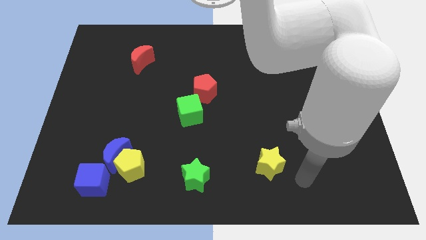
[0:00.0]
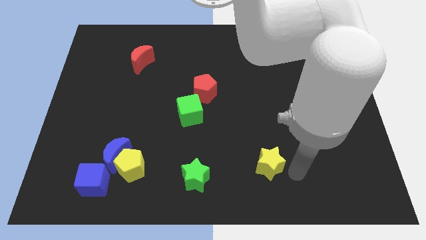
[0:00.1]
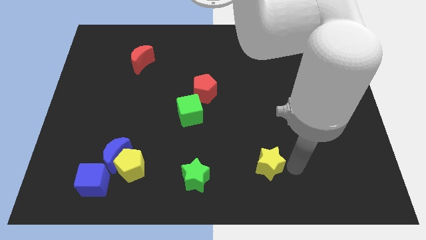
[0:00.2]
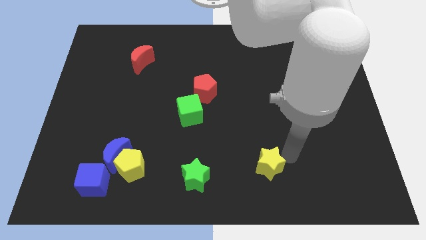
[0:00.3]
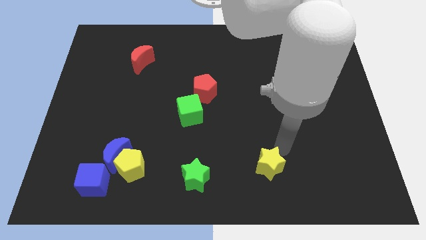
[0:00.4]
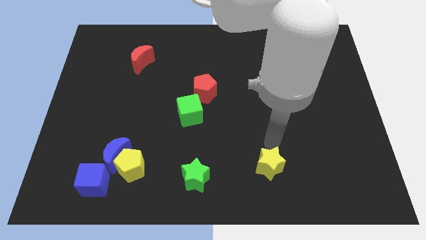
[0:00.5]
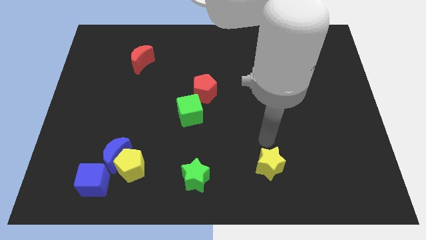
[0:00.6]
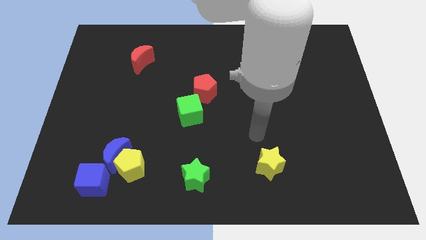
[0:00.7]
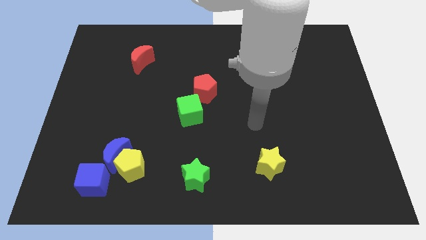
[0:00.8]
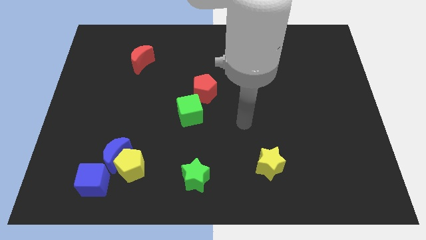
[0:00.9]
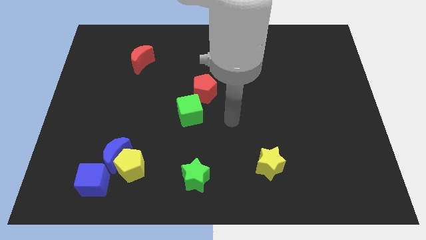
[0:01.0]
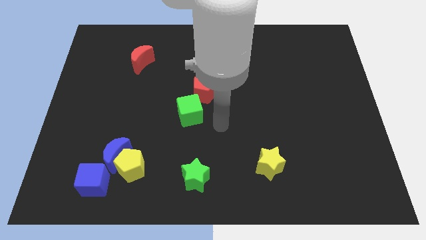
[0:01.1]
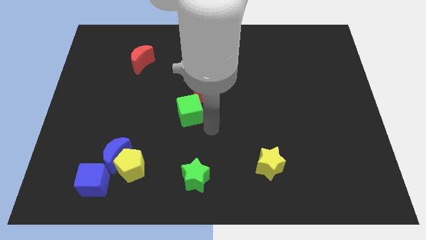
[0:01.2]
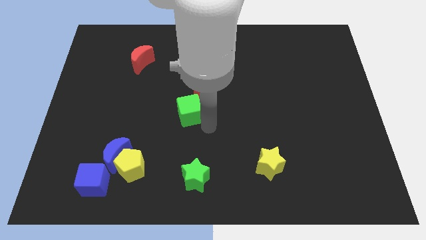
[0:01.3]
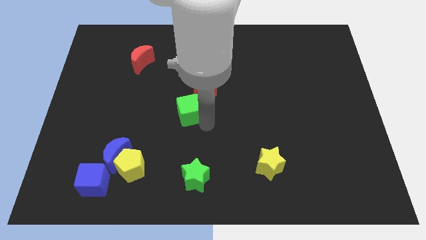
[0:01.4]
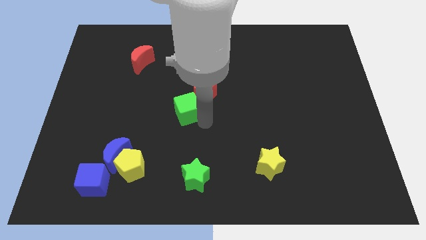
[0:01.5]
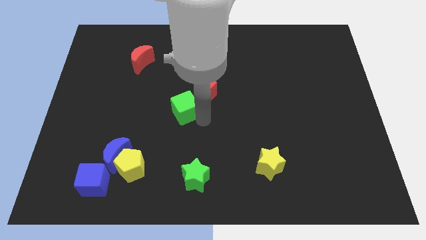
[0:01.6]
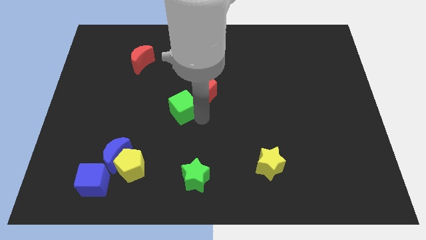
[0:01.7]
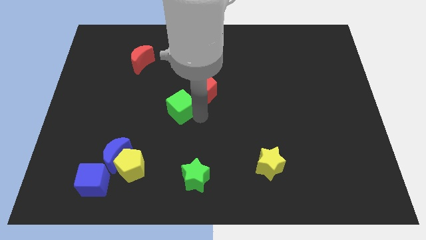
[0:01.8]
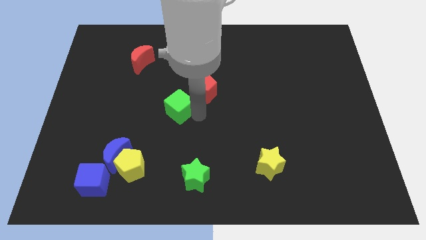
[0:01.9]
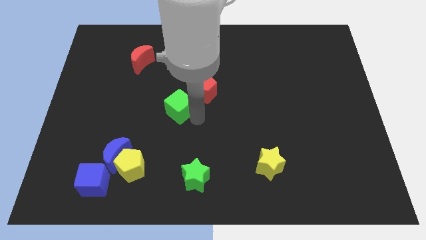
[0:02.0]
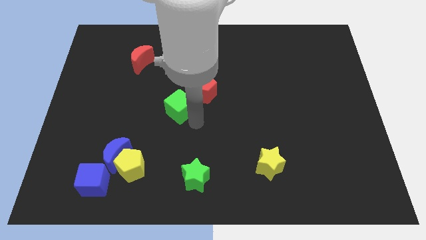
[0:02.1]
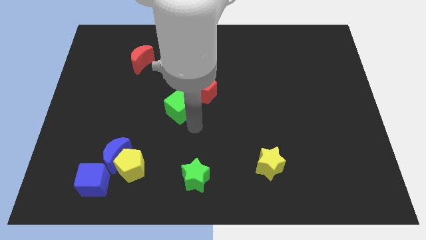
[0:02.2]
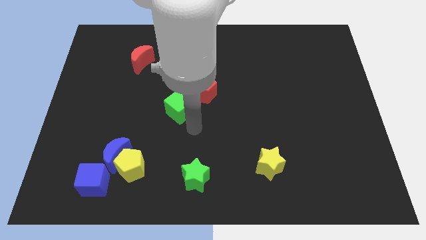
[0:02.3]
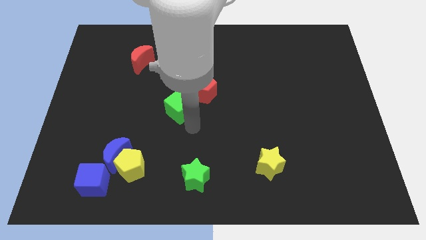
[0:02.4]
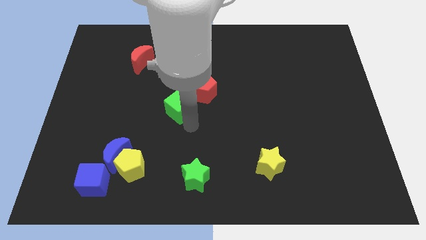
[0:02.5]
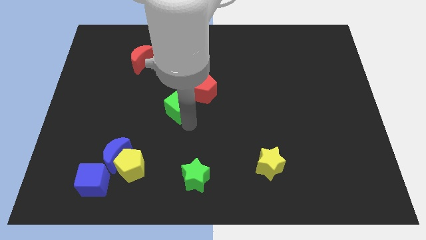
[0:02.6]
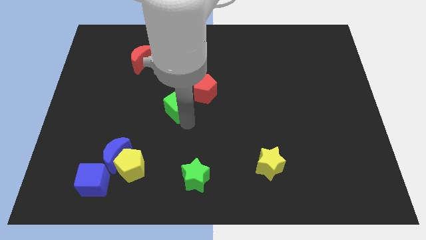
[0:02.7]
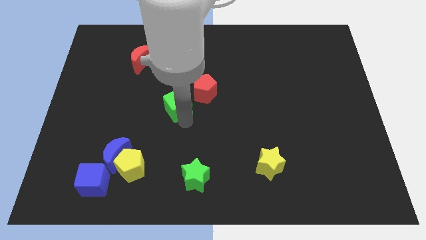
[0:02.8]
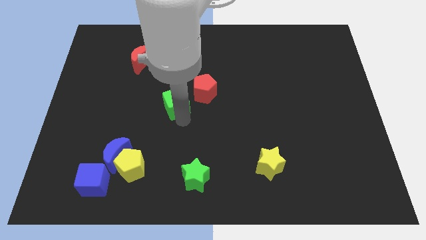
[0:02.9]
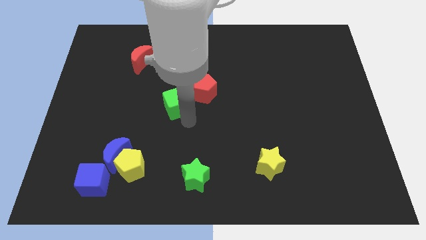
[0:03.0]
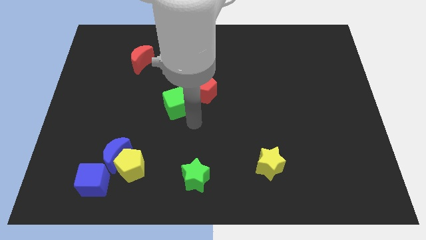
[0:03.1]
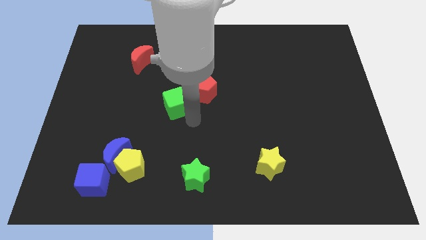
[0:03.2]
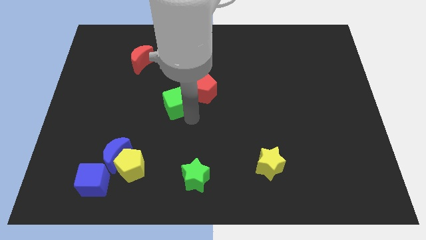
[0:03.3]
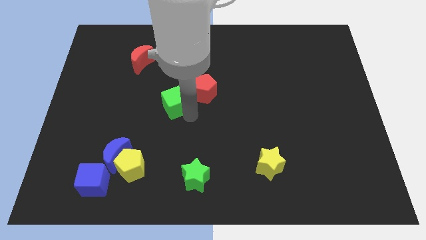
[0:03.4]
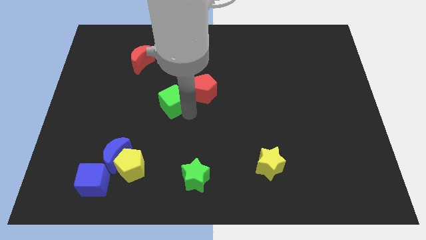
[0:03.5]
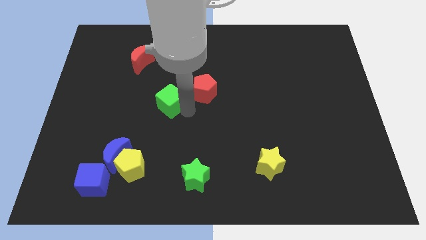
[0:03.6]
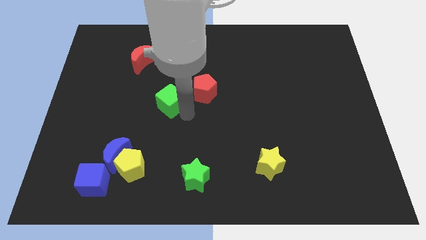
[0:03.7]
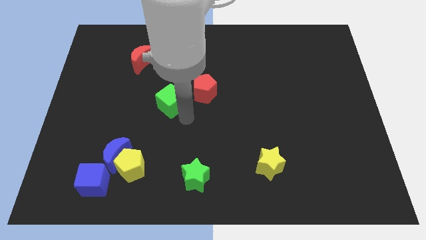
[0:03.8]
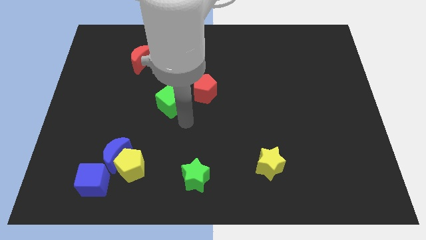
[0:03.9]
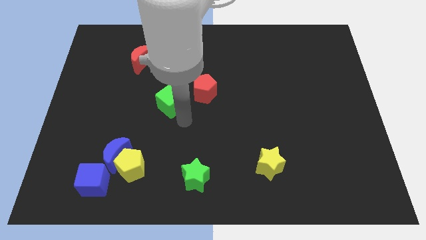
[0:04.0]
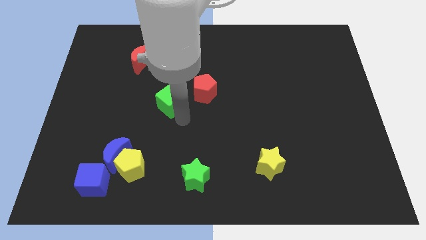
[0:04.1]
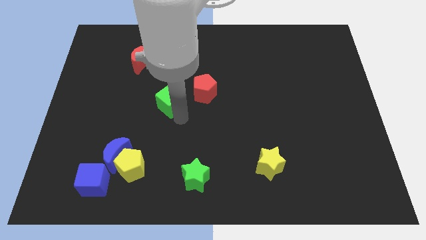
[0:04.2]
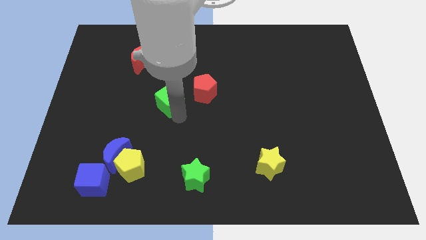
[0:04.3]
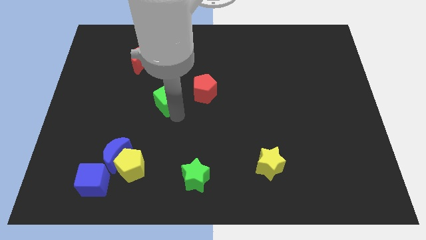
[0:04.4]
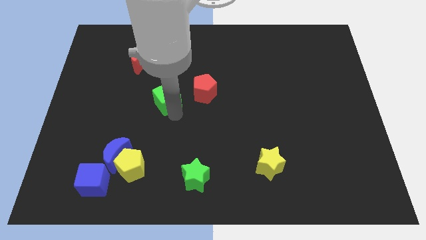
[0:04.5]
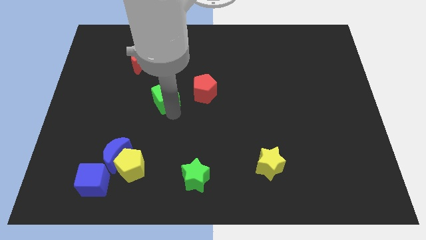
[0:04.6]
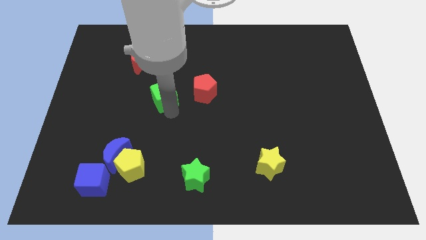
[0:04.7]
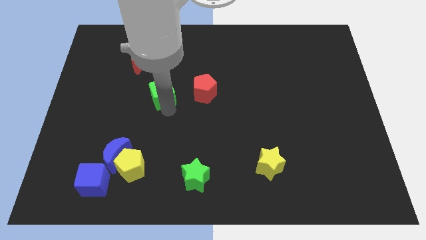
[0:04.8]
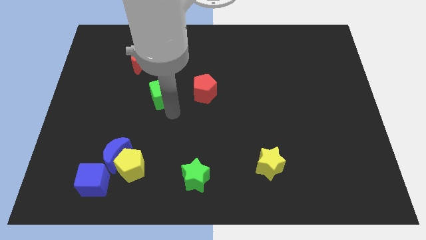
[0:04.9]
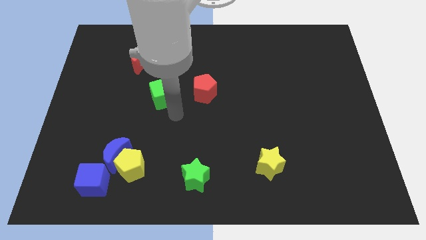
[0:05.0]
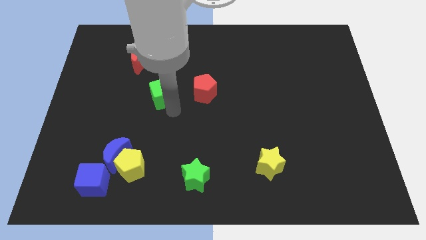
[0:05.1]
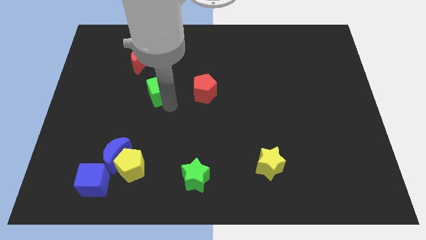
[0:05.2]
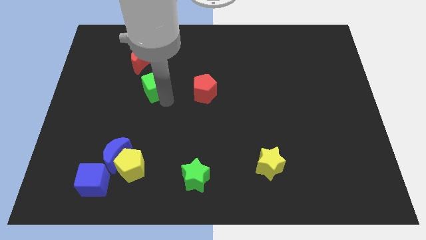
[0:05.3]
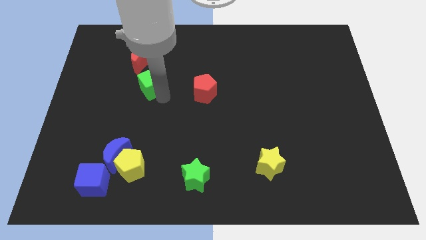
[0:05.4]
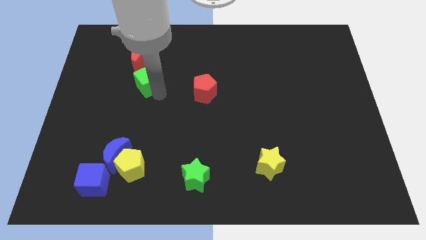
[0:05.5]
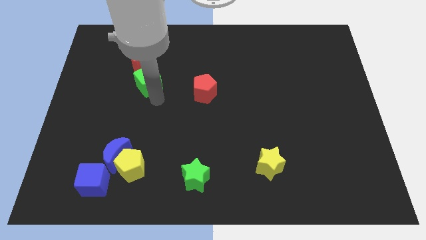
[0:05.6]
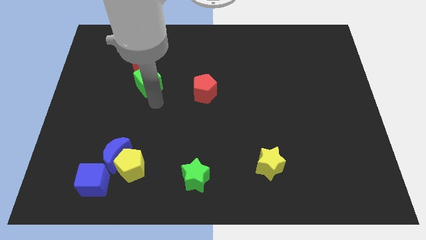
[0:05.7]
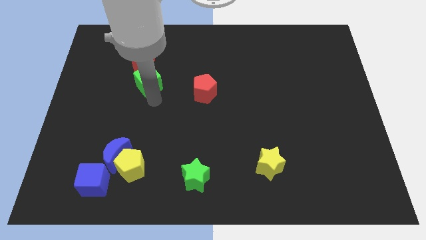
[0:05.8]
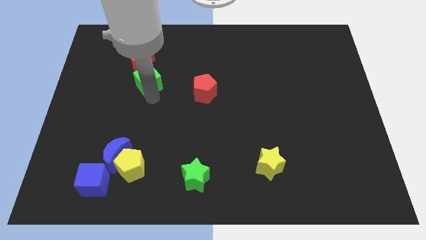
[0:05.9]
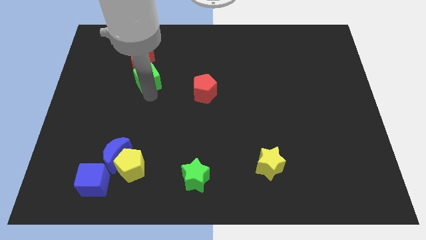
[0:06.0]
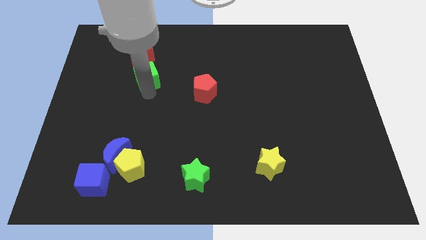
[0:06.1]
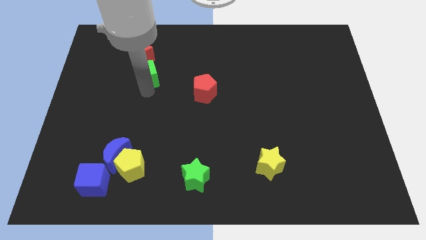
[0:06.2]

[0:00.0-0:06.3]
slide the green cube towards the red moon

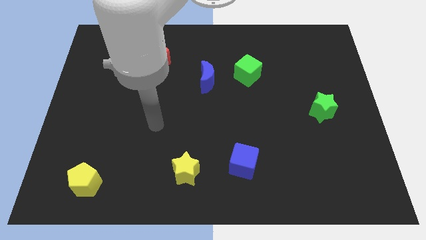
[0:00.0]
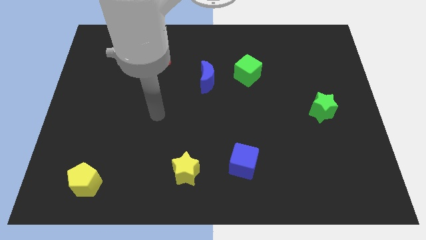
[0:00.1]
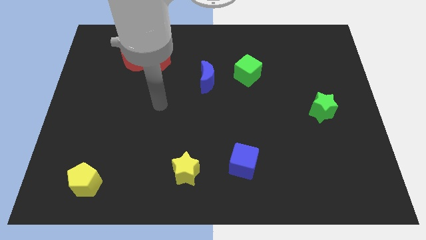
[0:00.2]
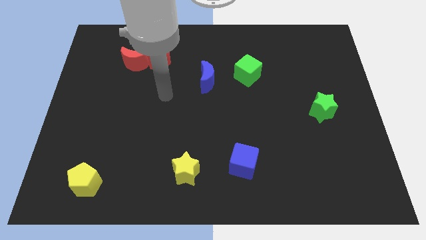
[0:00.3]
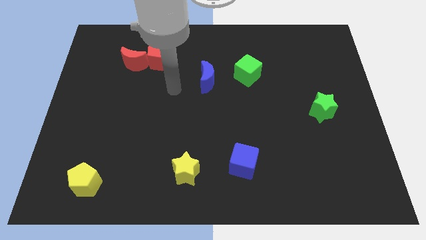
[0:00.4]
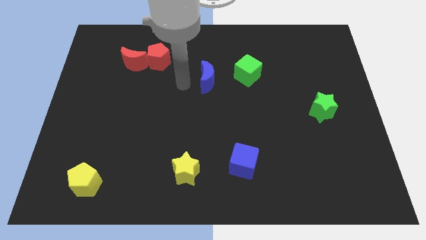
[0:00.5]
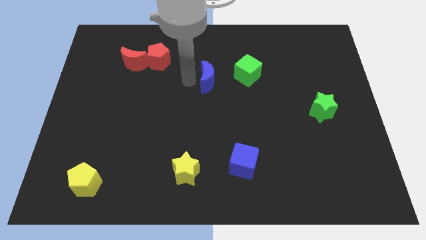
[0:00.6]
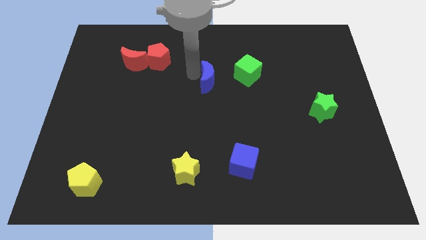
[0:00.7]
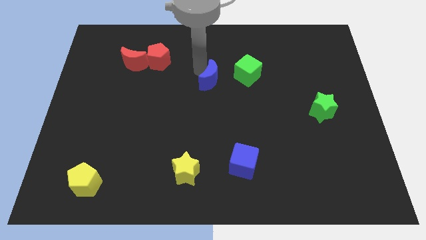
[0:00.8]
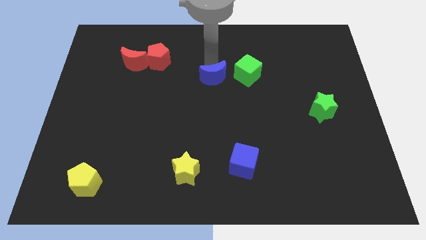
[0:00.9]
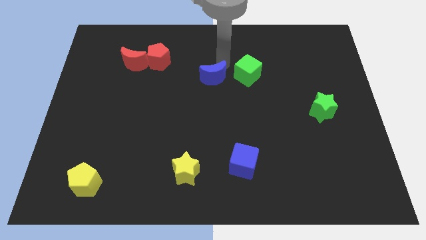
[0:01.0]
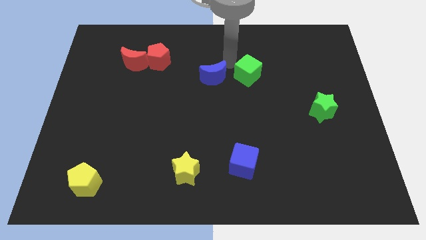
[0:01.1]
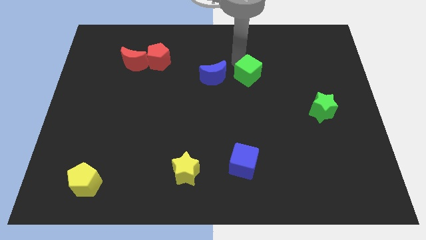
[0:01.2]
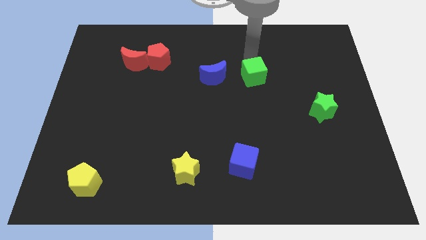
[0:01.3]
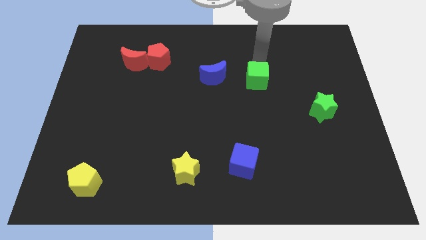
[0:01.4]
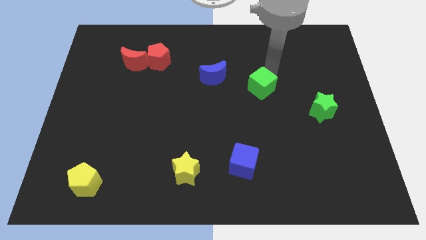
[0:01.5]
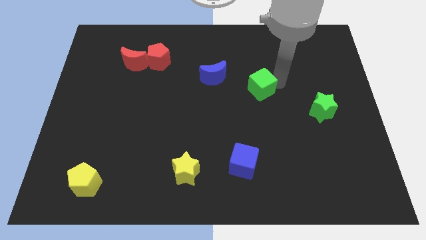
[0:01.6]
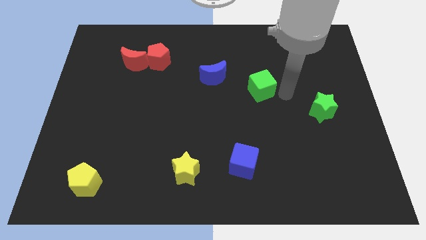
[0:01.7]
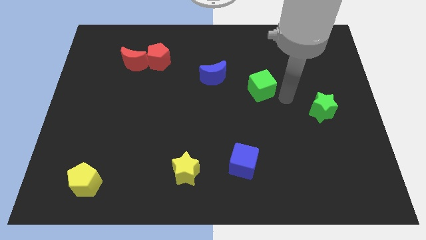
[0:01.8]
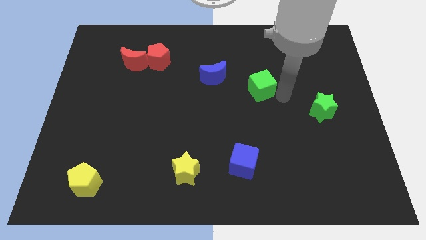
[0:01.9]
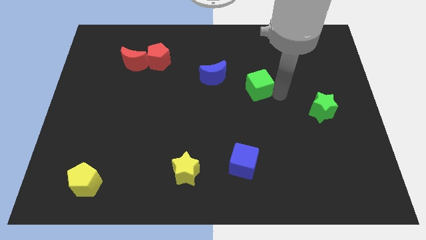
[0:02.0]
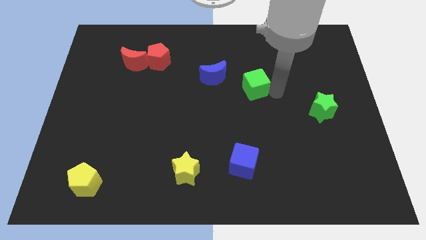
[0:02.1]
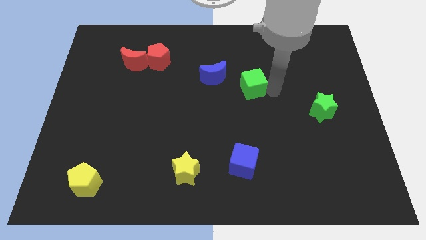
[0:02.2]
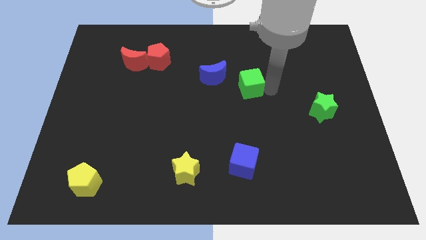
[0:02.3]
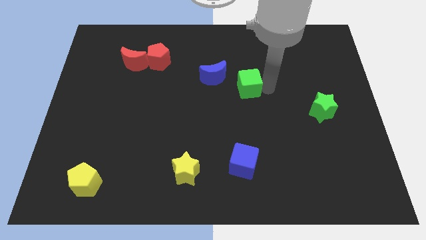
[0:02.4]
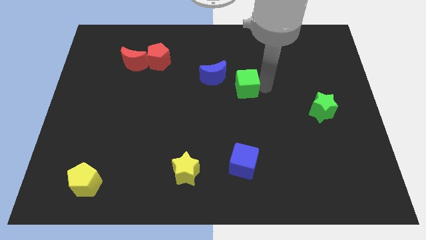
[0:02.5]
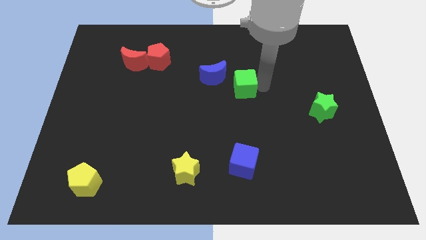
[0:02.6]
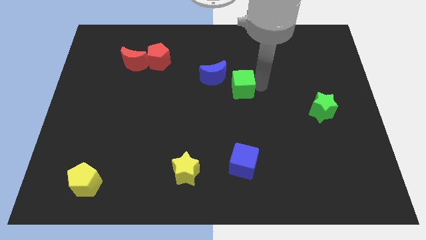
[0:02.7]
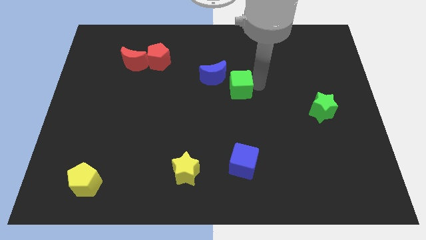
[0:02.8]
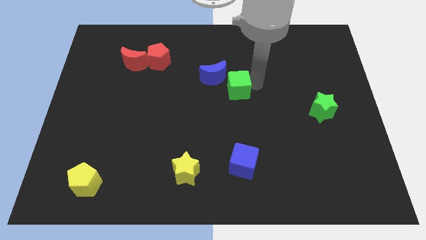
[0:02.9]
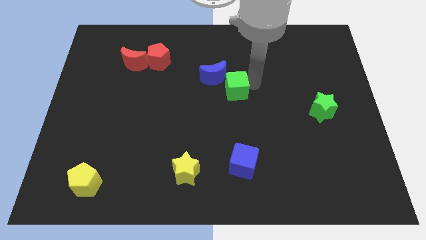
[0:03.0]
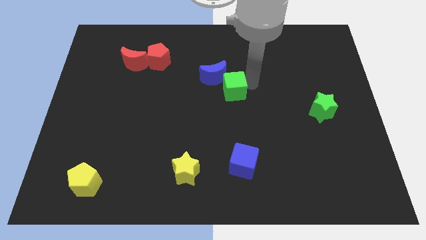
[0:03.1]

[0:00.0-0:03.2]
put the green cube close to the blue moon
